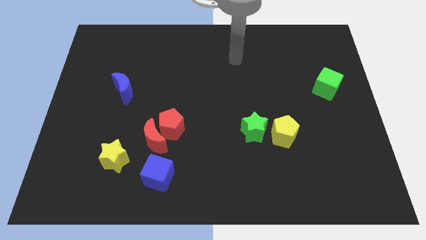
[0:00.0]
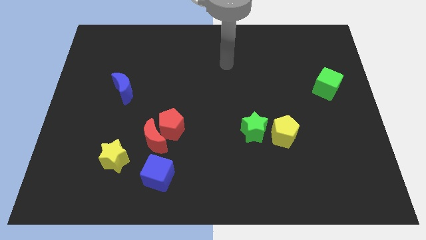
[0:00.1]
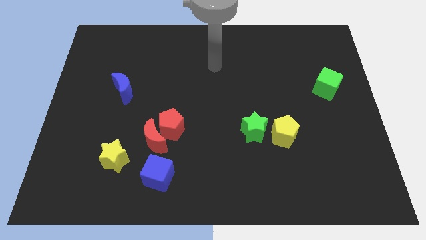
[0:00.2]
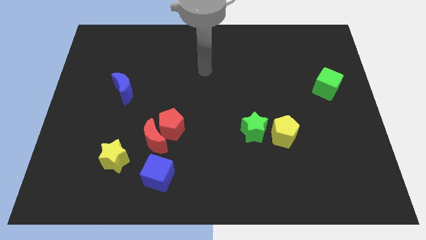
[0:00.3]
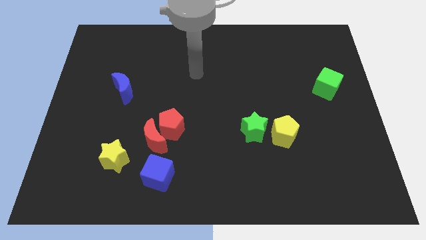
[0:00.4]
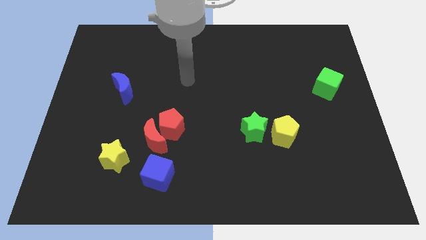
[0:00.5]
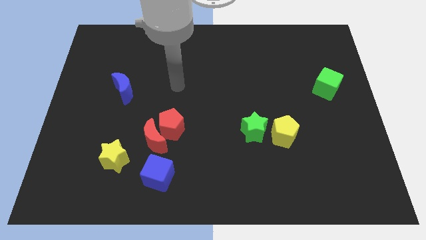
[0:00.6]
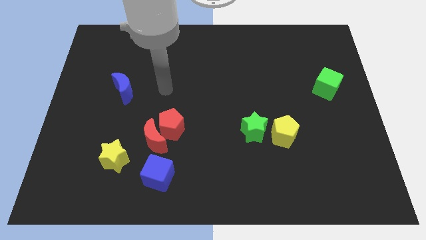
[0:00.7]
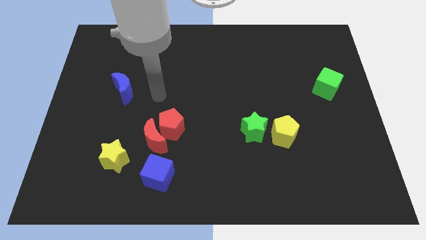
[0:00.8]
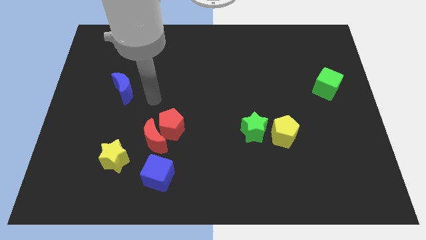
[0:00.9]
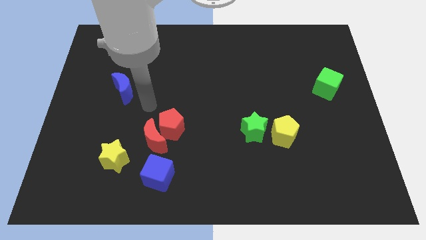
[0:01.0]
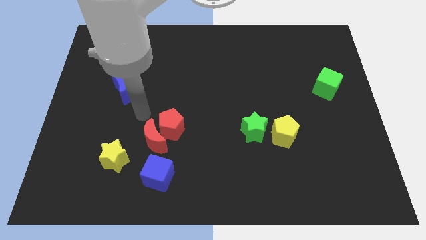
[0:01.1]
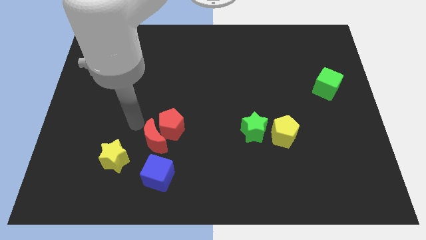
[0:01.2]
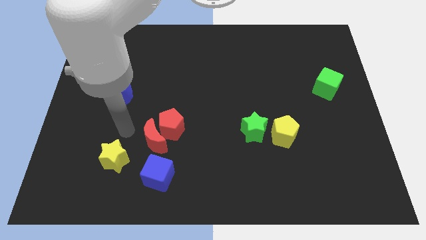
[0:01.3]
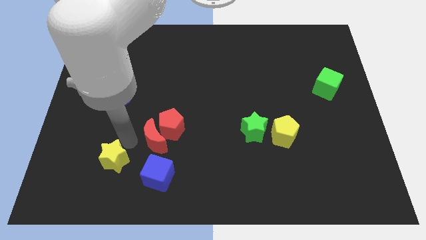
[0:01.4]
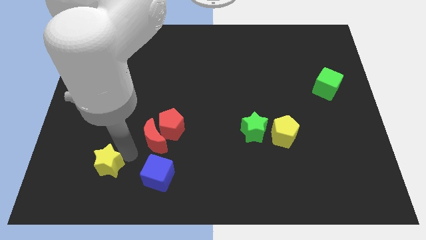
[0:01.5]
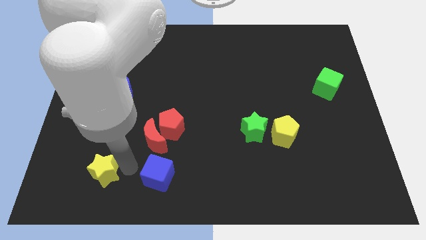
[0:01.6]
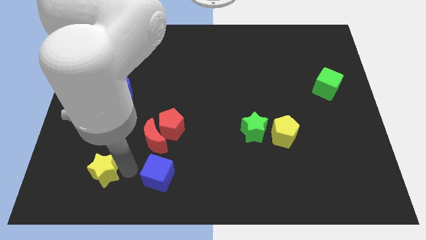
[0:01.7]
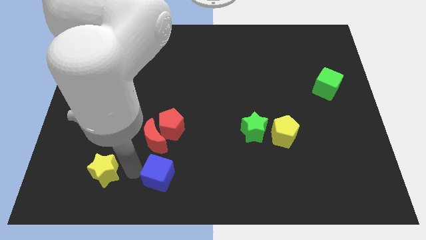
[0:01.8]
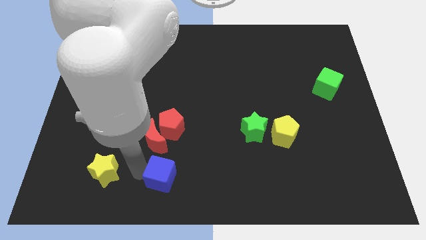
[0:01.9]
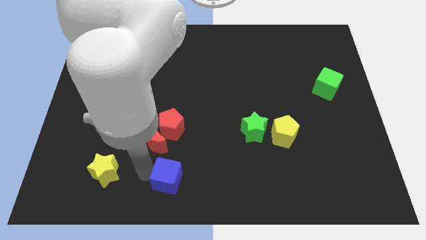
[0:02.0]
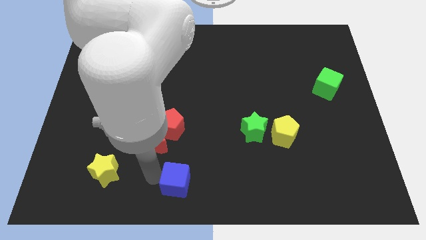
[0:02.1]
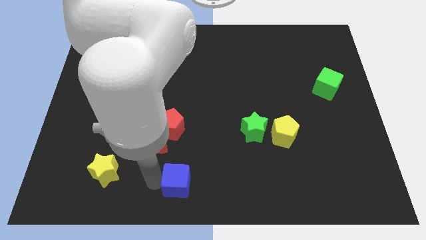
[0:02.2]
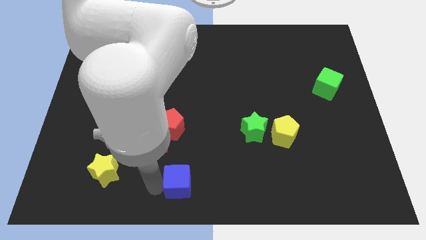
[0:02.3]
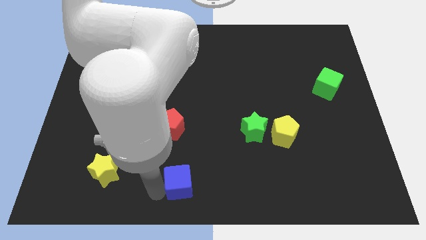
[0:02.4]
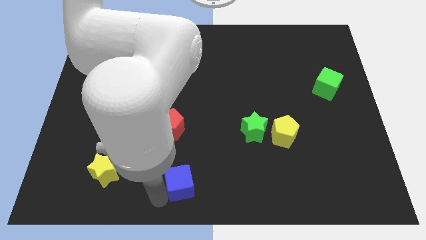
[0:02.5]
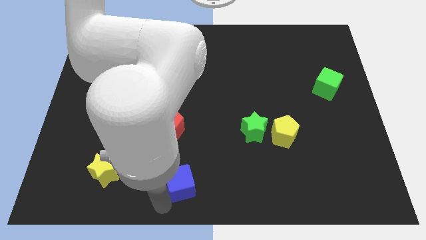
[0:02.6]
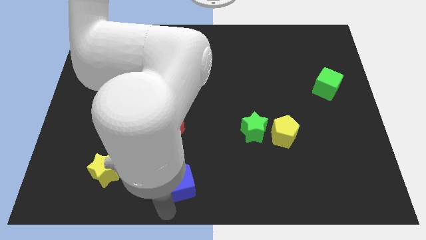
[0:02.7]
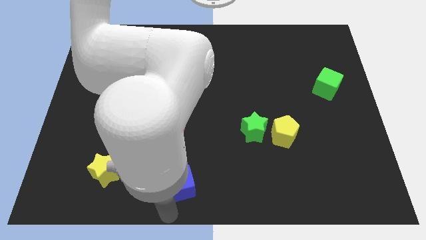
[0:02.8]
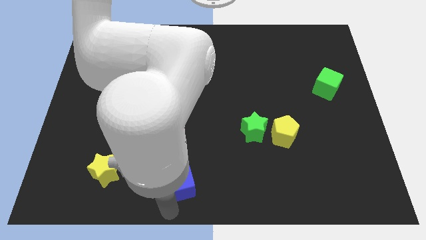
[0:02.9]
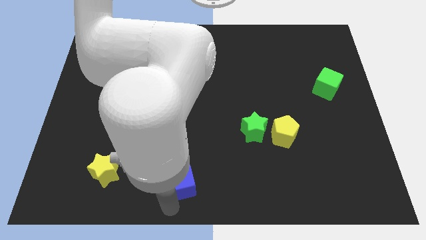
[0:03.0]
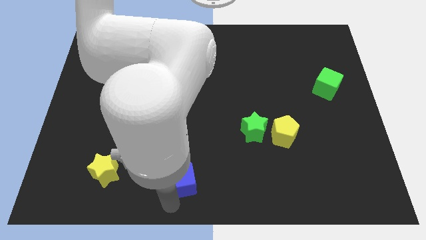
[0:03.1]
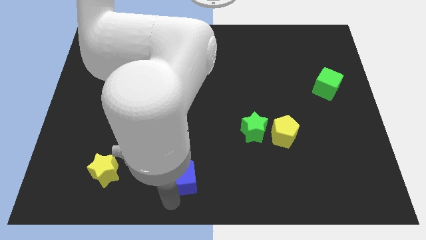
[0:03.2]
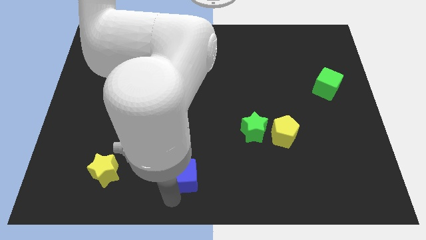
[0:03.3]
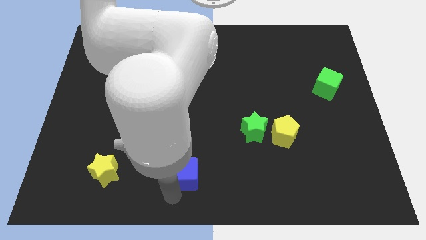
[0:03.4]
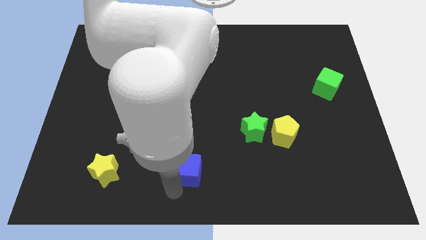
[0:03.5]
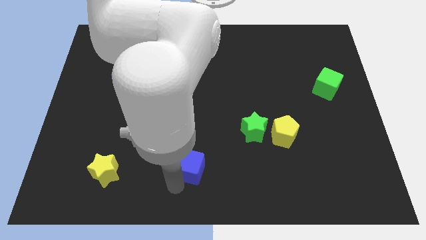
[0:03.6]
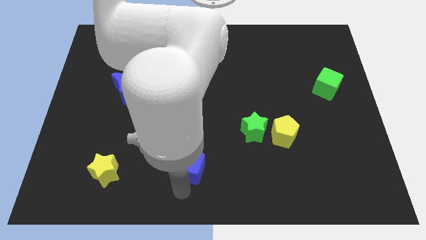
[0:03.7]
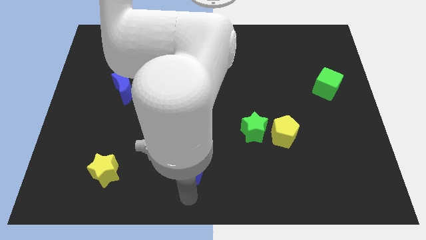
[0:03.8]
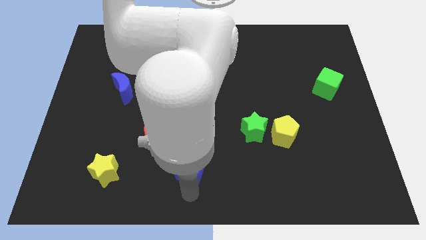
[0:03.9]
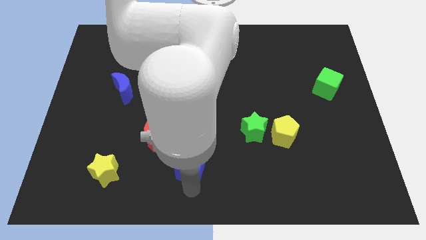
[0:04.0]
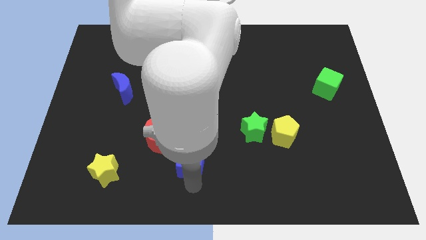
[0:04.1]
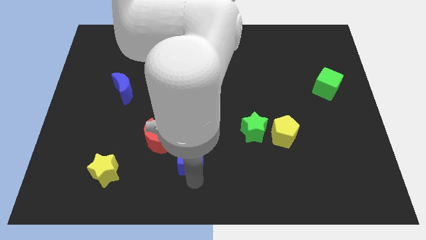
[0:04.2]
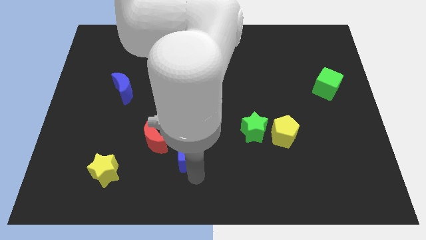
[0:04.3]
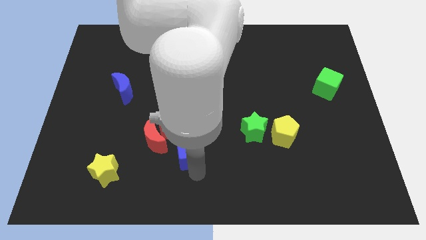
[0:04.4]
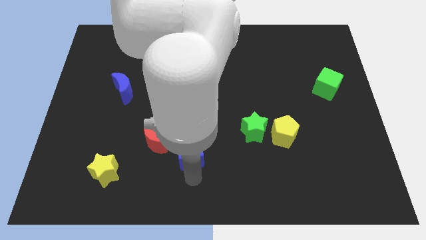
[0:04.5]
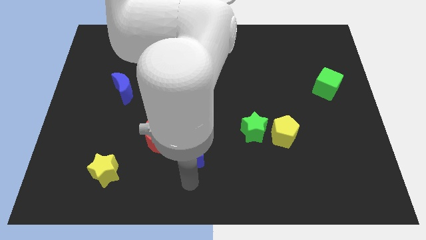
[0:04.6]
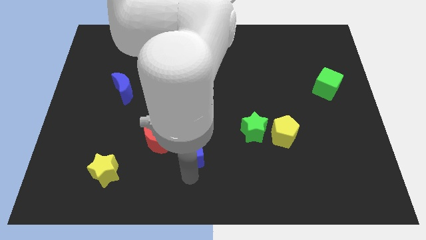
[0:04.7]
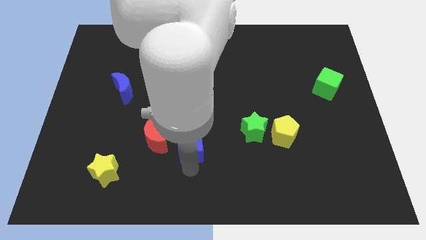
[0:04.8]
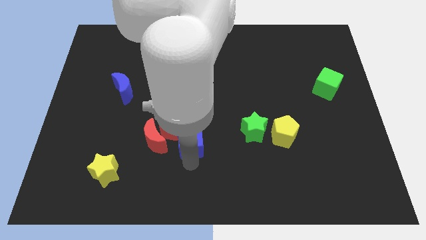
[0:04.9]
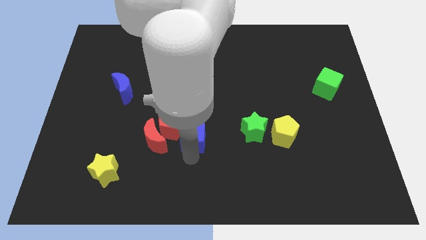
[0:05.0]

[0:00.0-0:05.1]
move the blue cube up a little

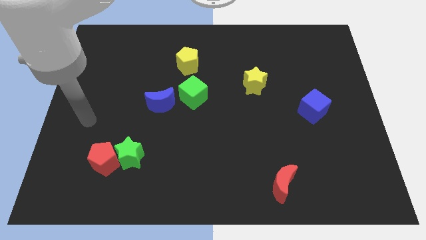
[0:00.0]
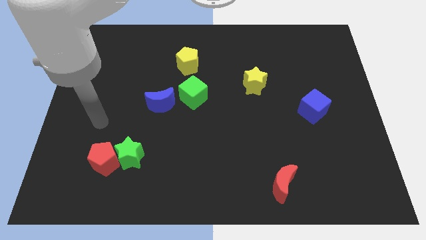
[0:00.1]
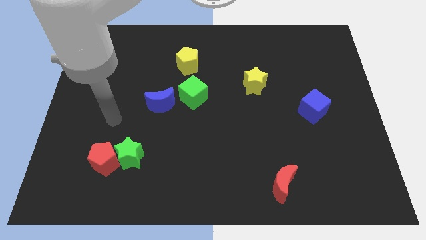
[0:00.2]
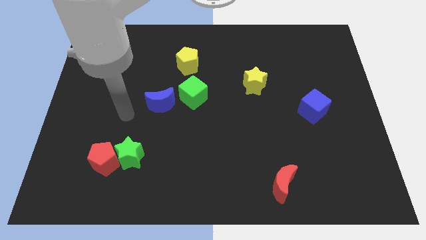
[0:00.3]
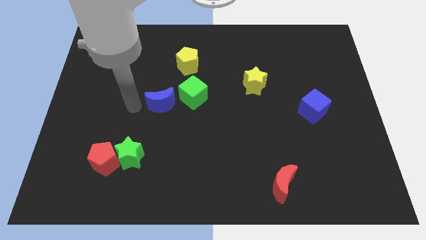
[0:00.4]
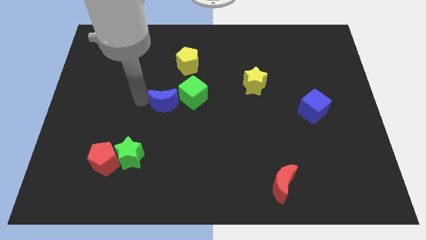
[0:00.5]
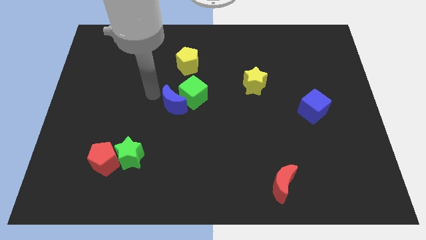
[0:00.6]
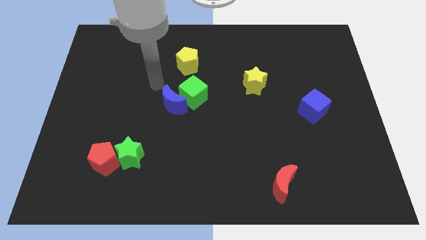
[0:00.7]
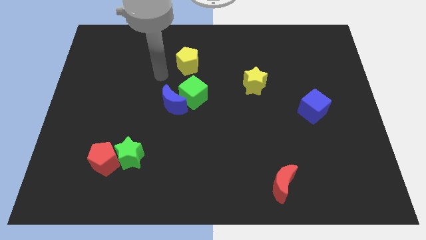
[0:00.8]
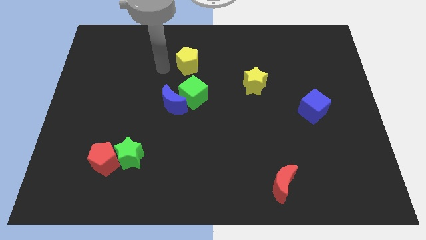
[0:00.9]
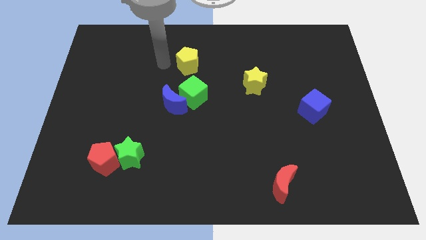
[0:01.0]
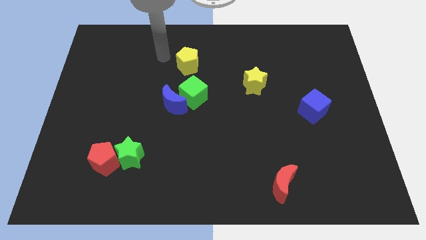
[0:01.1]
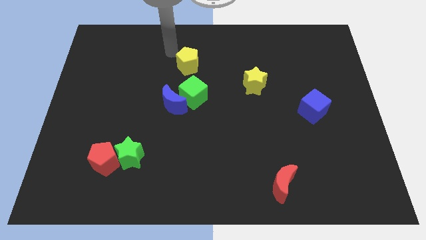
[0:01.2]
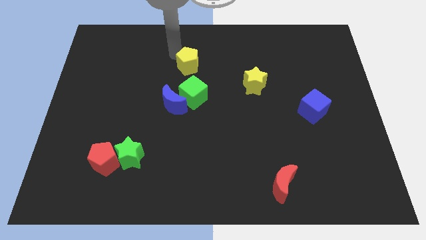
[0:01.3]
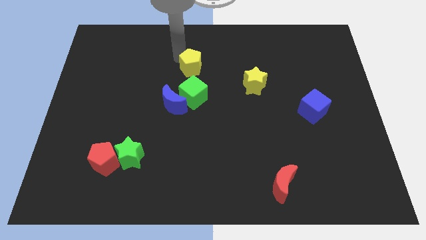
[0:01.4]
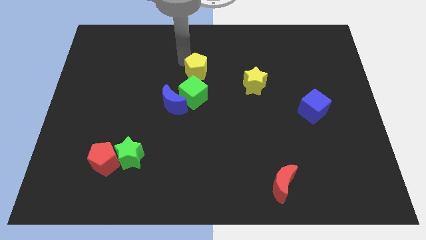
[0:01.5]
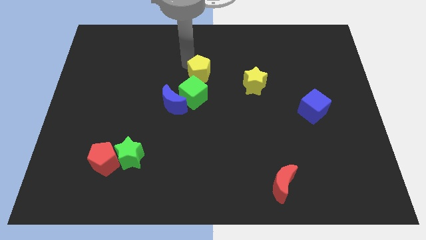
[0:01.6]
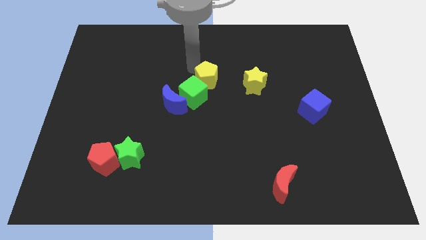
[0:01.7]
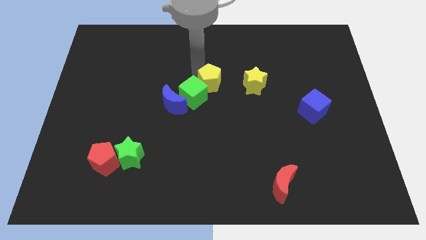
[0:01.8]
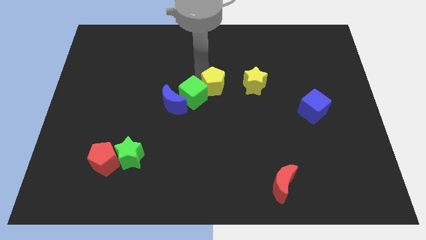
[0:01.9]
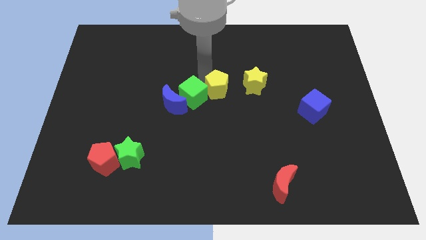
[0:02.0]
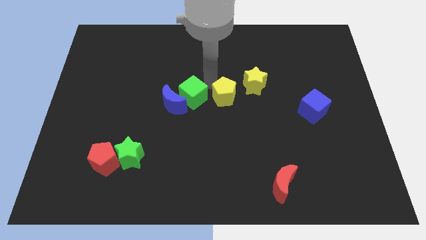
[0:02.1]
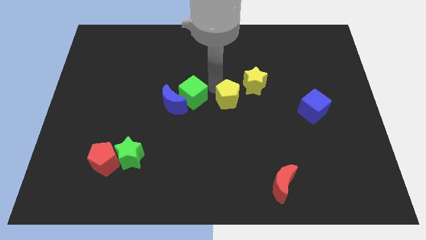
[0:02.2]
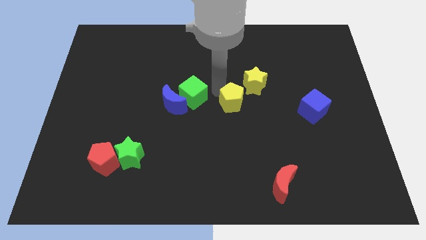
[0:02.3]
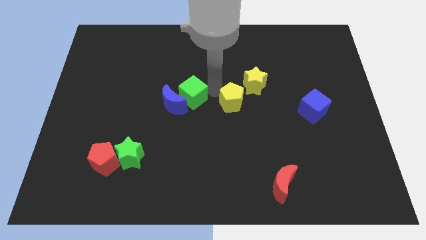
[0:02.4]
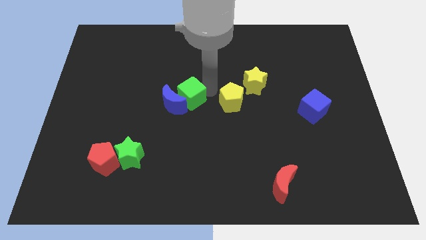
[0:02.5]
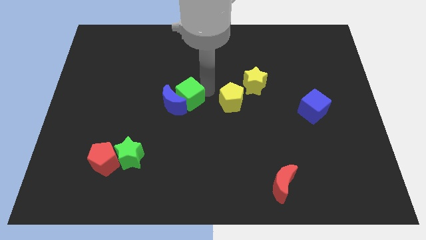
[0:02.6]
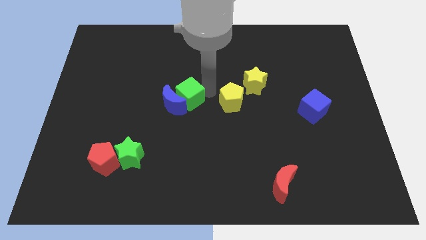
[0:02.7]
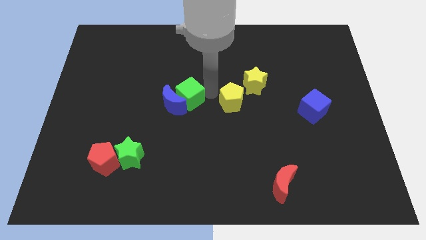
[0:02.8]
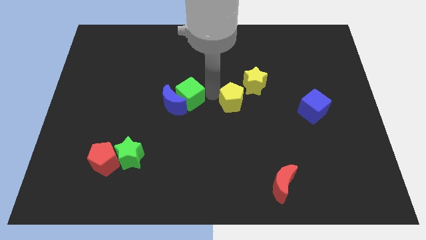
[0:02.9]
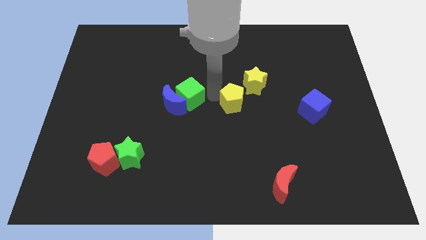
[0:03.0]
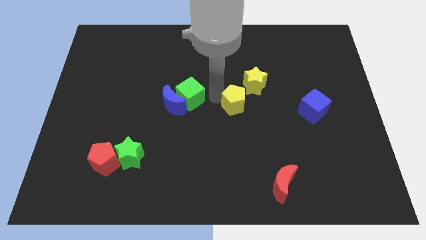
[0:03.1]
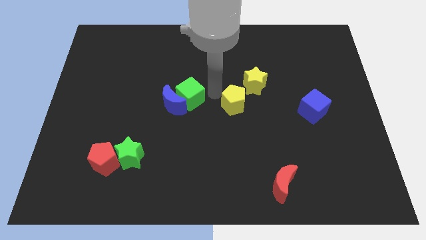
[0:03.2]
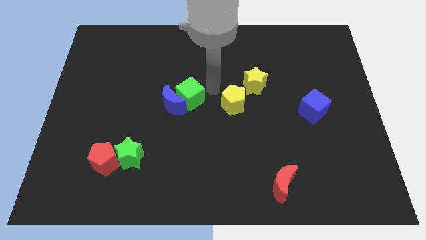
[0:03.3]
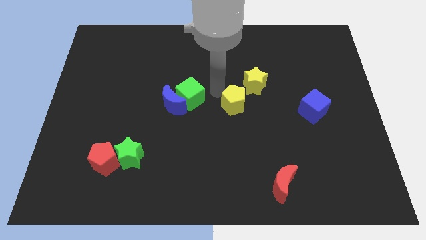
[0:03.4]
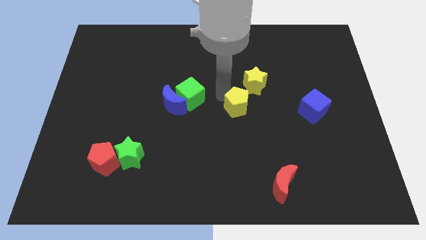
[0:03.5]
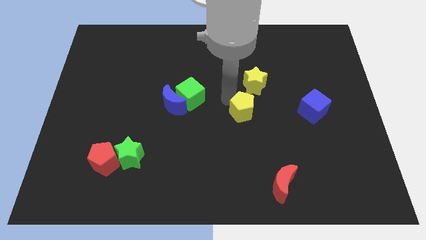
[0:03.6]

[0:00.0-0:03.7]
push the yellow pentagon diagonally downwards and right
